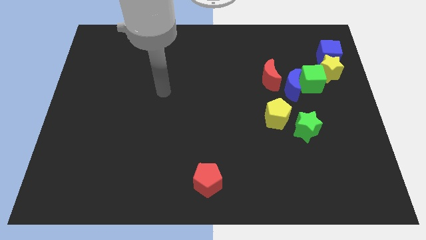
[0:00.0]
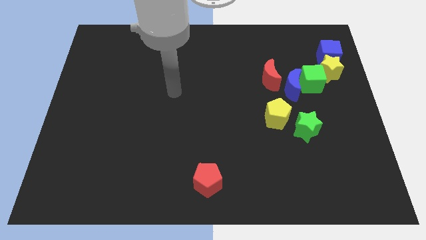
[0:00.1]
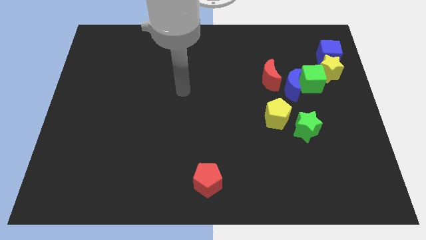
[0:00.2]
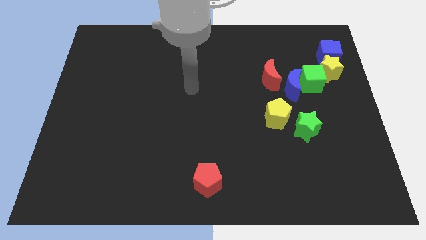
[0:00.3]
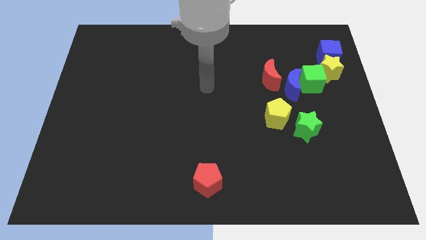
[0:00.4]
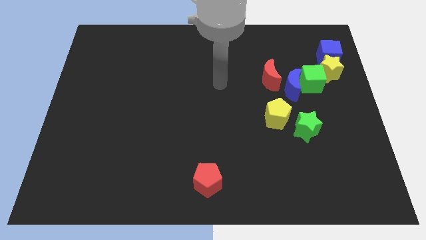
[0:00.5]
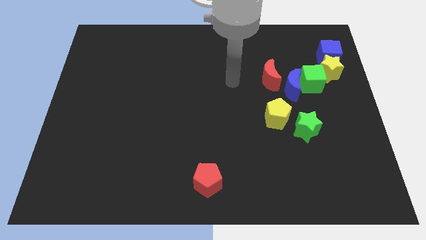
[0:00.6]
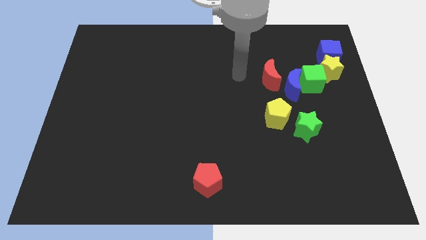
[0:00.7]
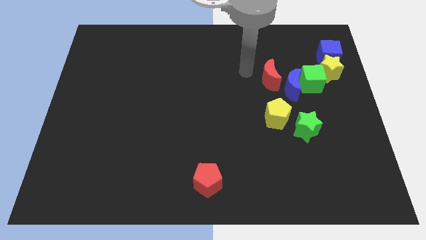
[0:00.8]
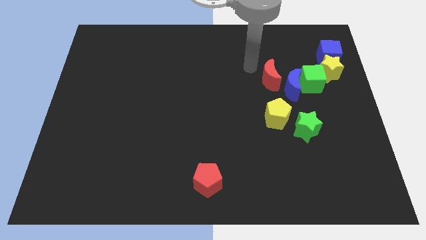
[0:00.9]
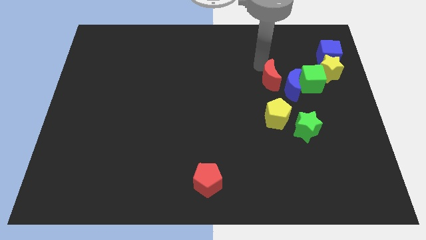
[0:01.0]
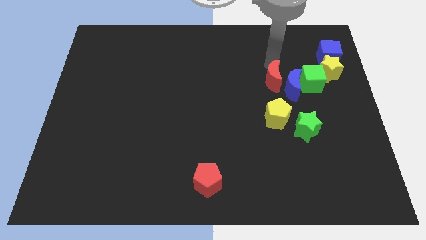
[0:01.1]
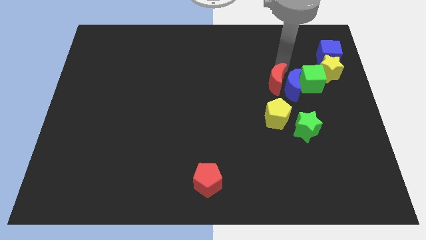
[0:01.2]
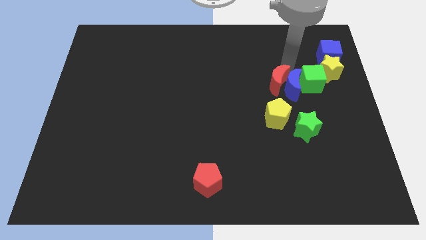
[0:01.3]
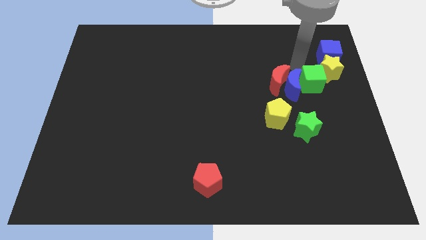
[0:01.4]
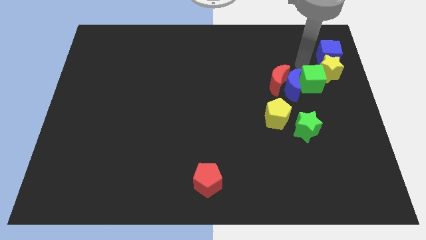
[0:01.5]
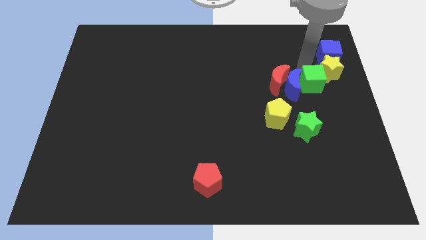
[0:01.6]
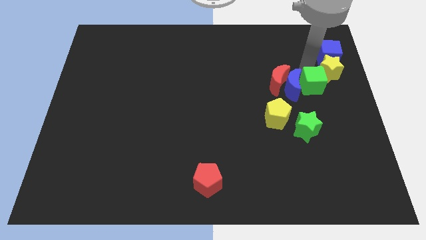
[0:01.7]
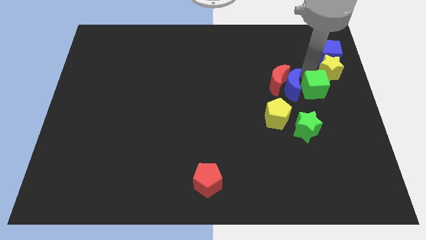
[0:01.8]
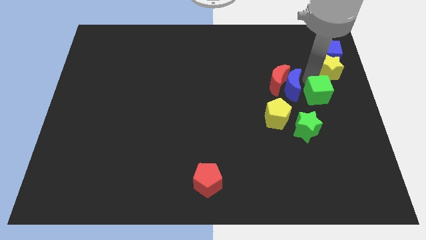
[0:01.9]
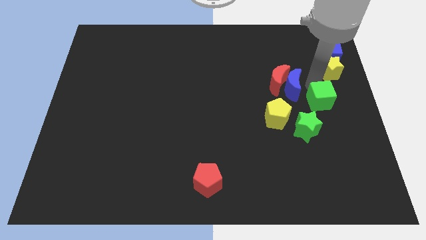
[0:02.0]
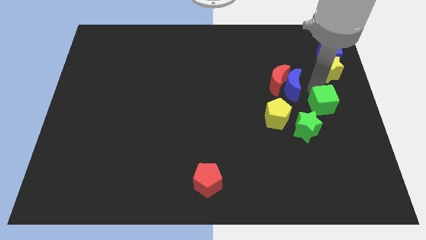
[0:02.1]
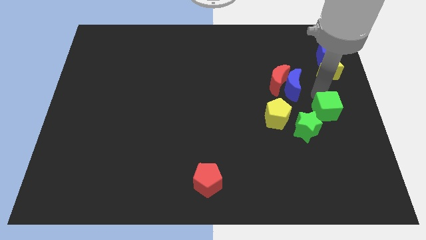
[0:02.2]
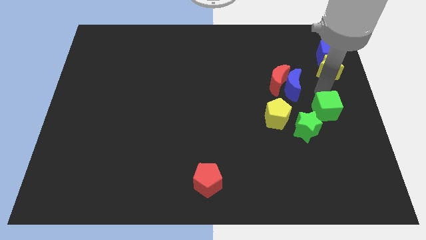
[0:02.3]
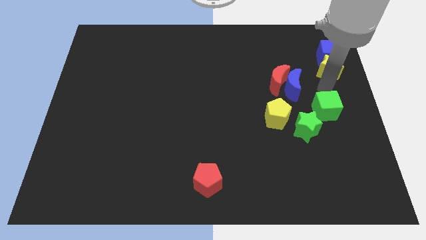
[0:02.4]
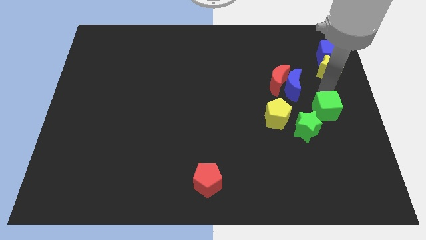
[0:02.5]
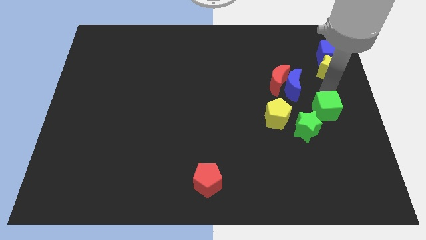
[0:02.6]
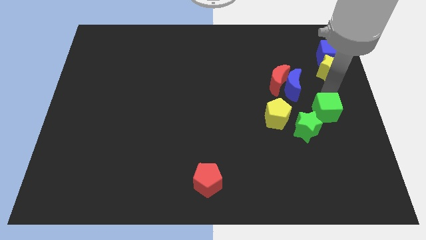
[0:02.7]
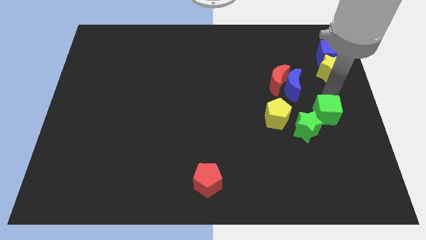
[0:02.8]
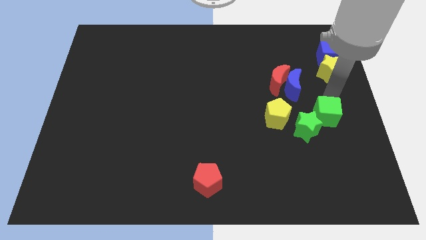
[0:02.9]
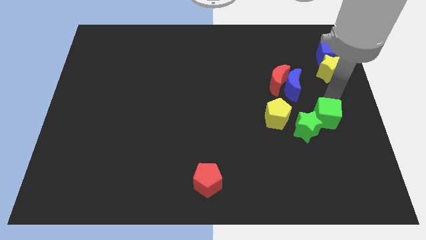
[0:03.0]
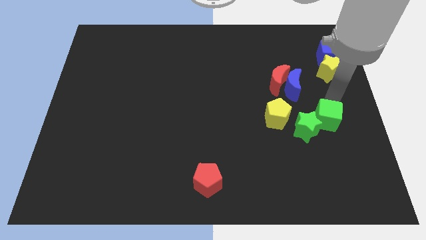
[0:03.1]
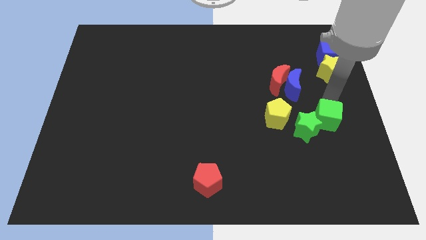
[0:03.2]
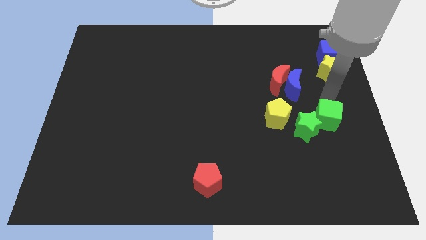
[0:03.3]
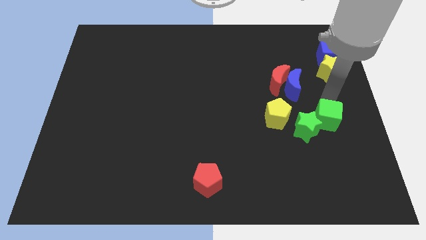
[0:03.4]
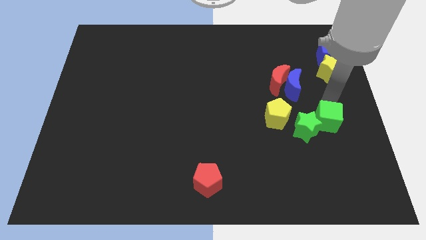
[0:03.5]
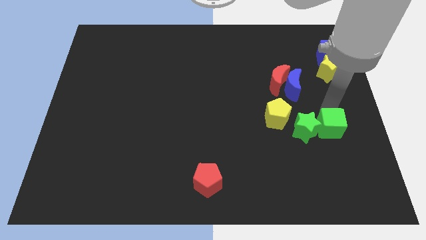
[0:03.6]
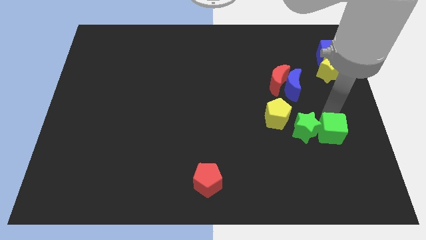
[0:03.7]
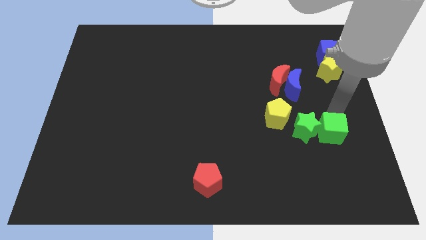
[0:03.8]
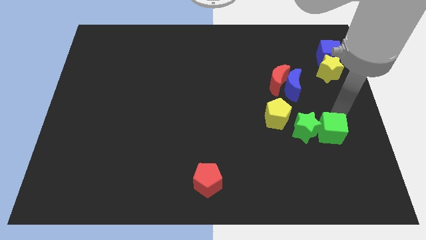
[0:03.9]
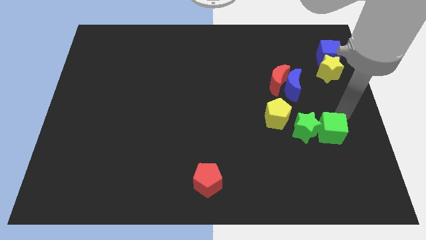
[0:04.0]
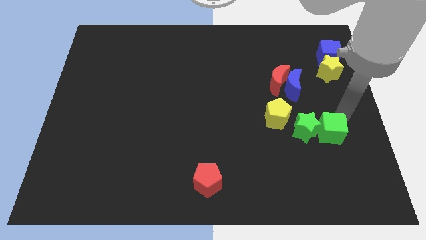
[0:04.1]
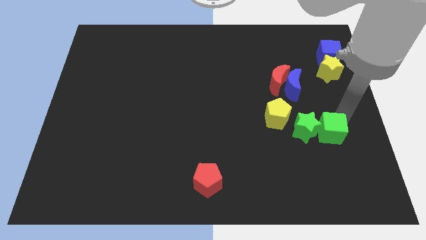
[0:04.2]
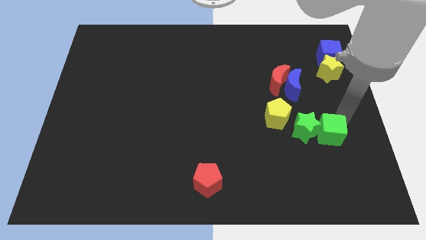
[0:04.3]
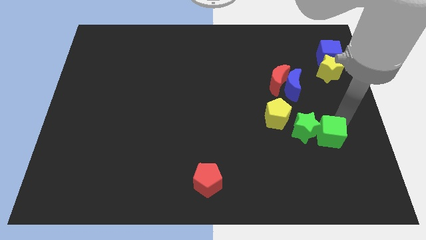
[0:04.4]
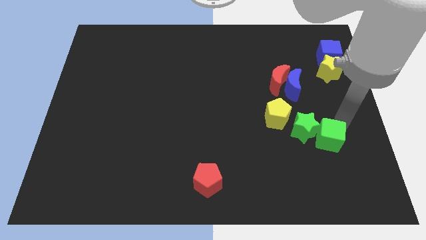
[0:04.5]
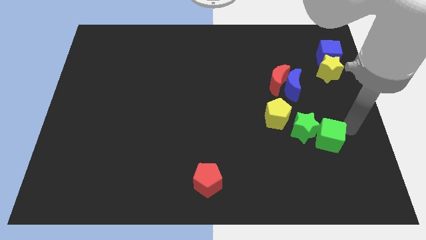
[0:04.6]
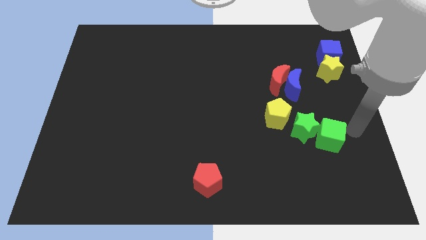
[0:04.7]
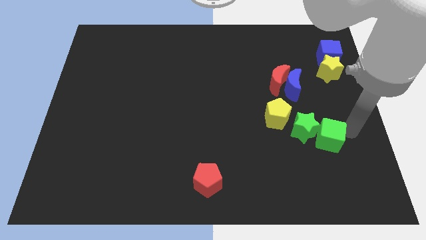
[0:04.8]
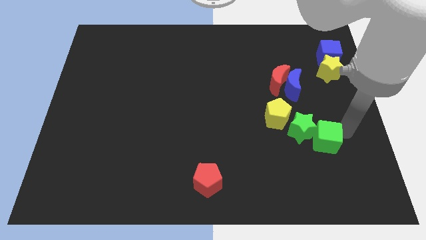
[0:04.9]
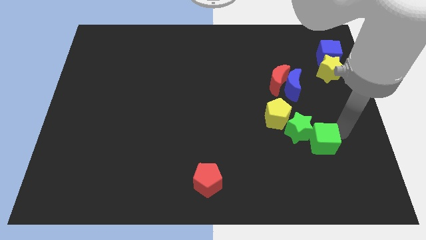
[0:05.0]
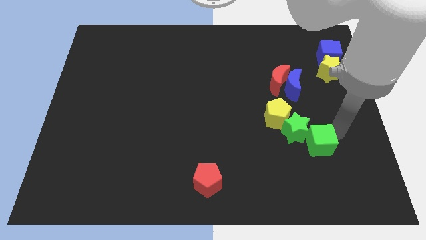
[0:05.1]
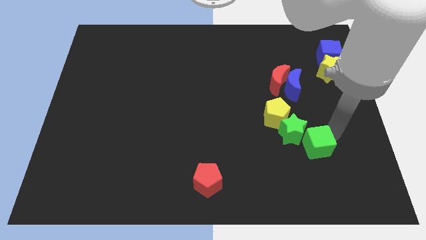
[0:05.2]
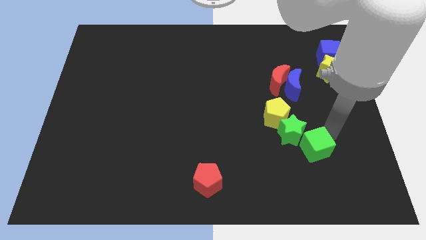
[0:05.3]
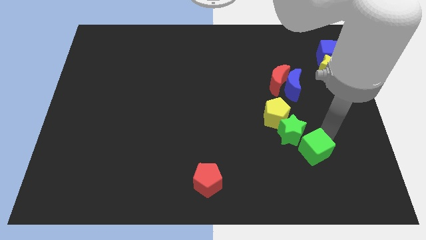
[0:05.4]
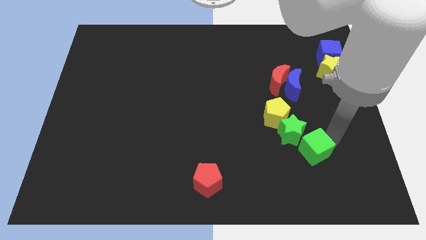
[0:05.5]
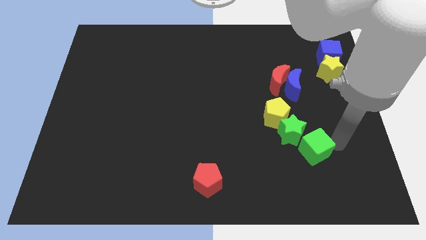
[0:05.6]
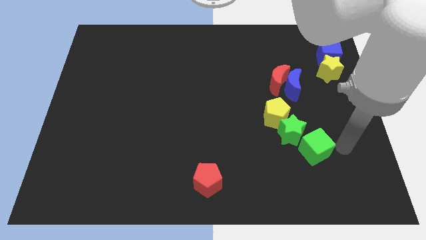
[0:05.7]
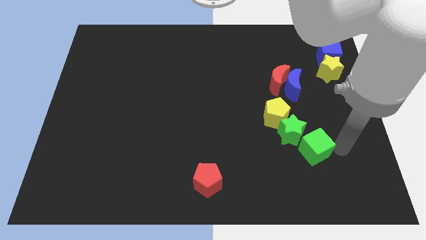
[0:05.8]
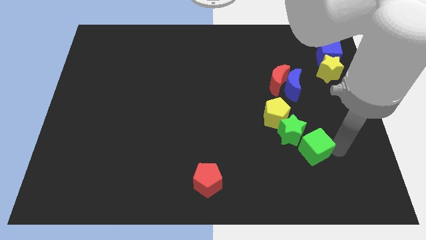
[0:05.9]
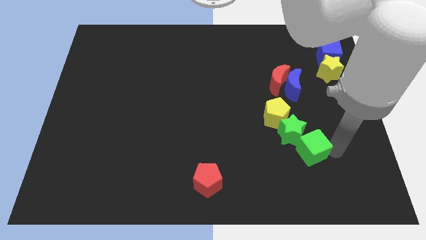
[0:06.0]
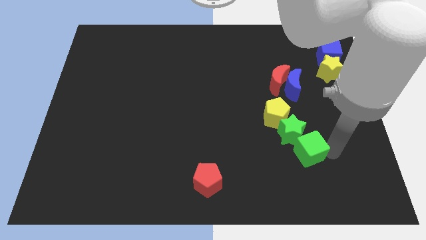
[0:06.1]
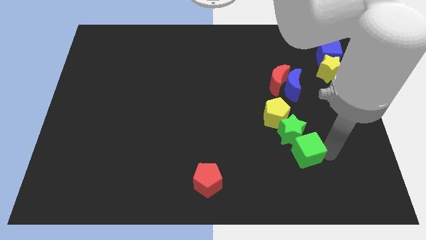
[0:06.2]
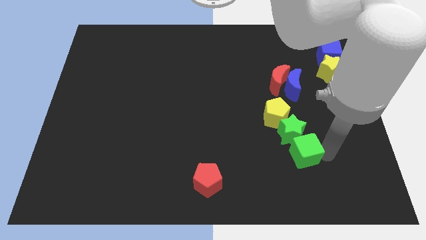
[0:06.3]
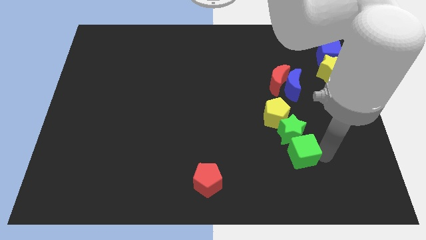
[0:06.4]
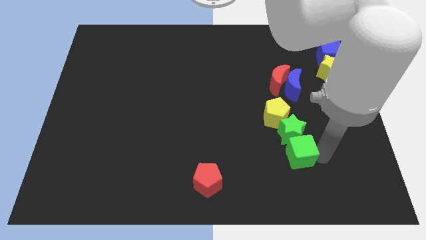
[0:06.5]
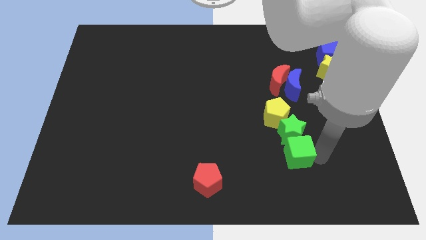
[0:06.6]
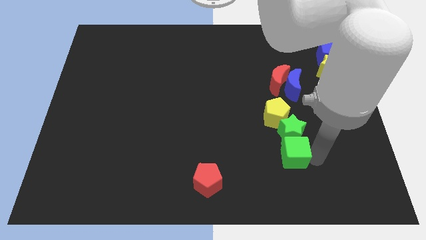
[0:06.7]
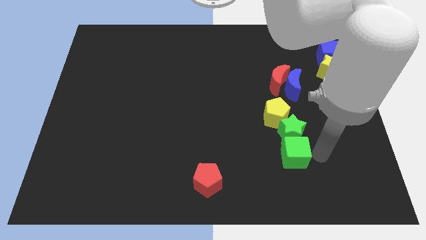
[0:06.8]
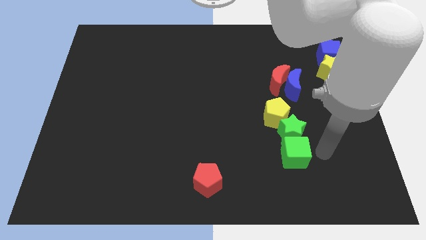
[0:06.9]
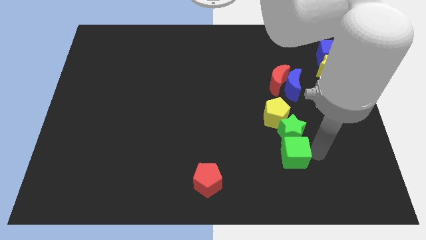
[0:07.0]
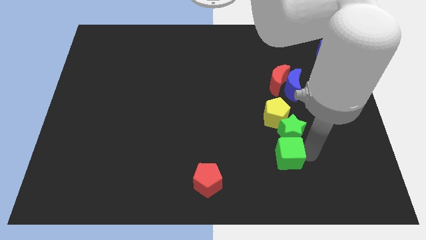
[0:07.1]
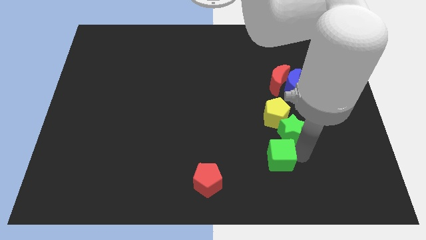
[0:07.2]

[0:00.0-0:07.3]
push the green cube down and left

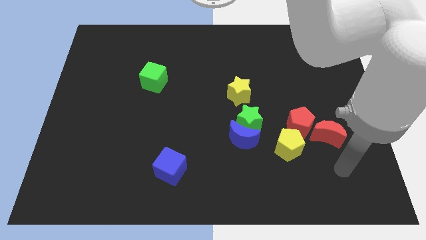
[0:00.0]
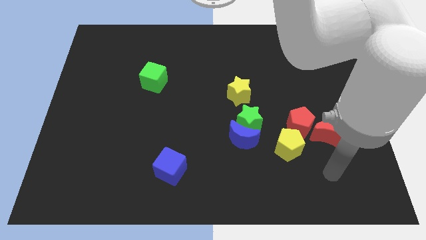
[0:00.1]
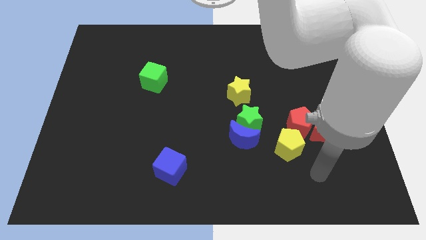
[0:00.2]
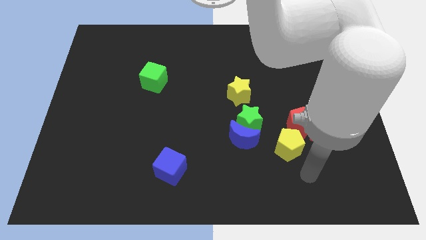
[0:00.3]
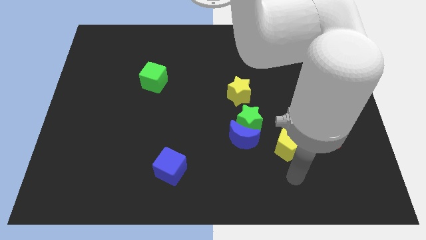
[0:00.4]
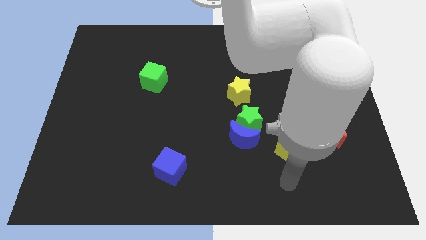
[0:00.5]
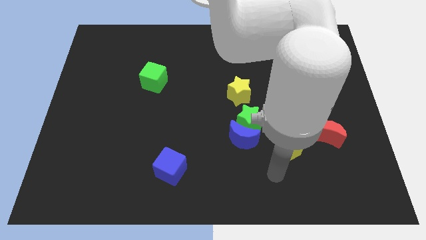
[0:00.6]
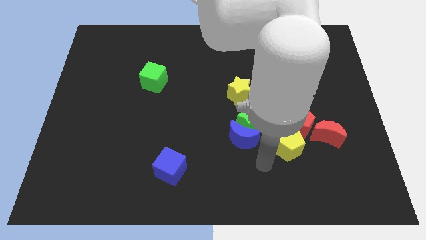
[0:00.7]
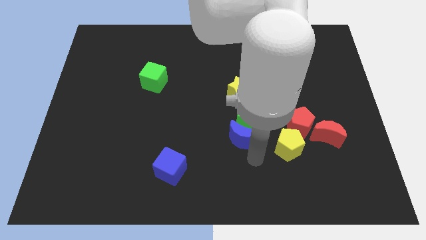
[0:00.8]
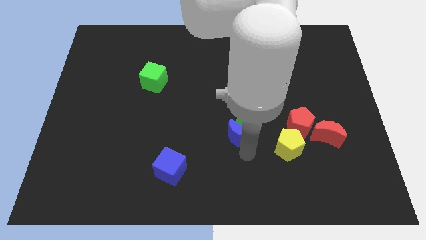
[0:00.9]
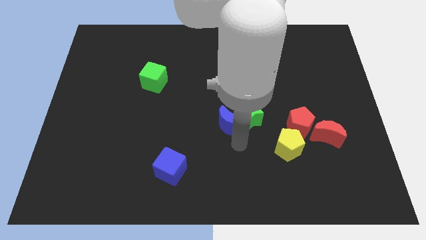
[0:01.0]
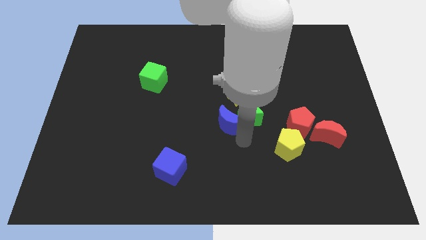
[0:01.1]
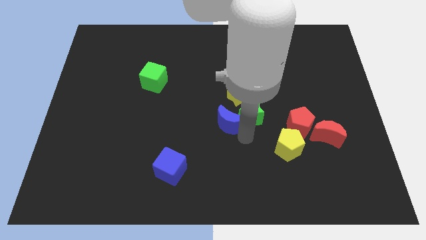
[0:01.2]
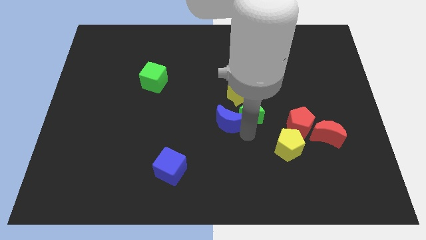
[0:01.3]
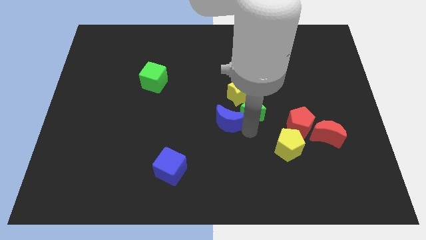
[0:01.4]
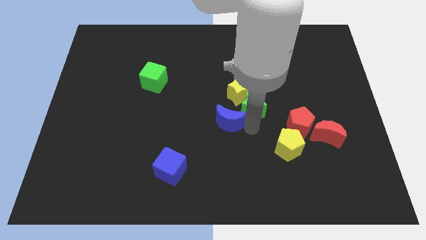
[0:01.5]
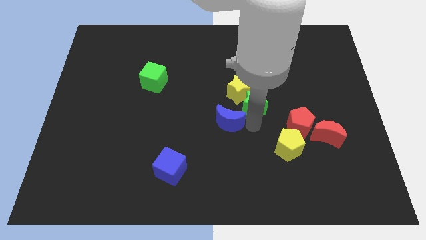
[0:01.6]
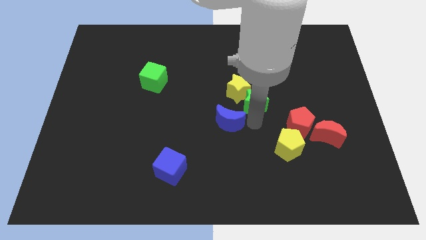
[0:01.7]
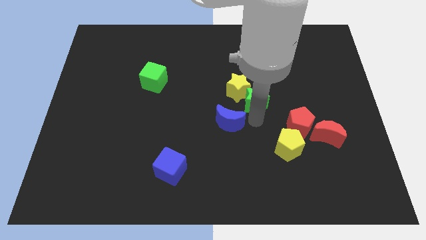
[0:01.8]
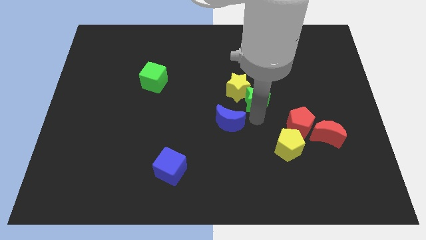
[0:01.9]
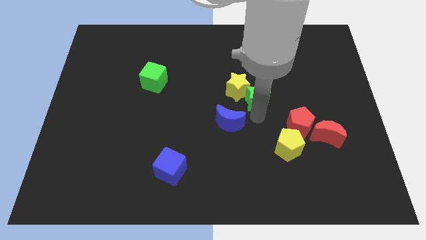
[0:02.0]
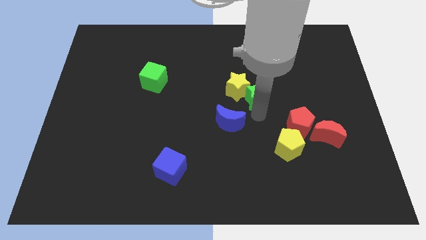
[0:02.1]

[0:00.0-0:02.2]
slide the green star up slightly
